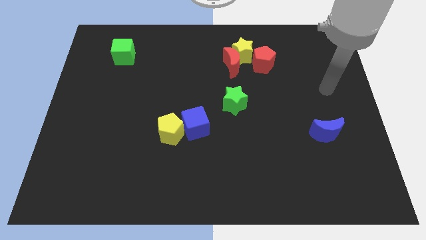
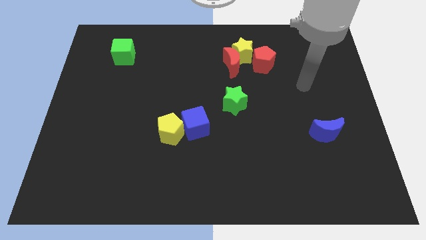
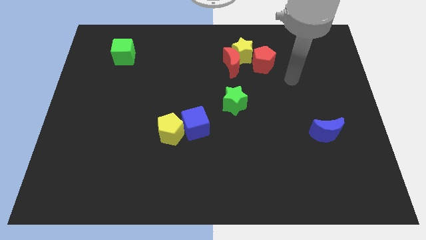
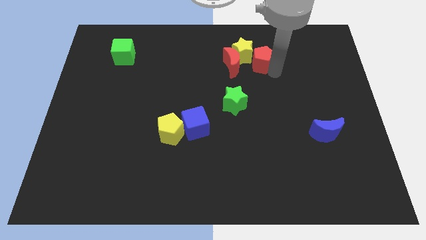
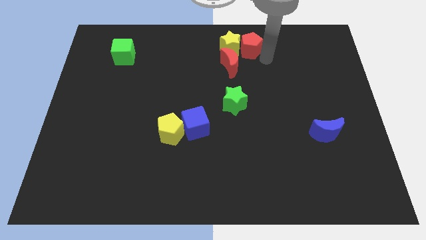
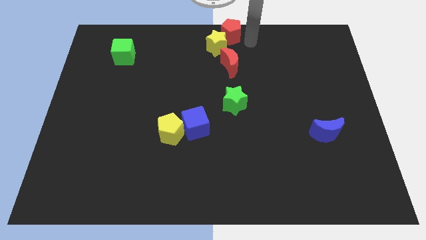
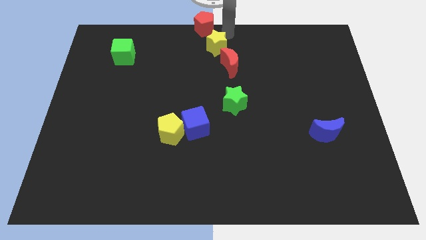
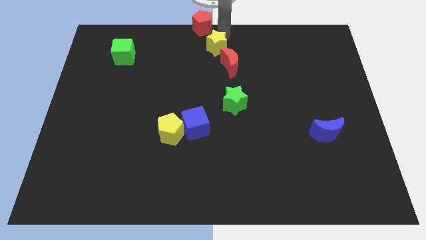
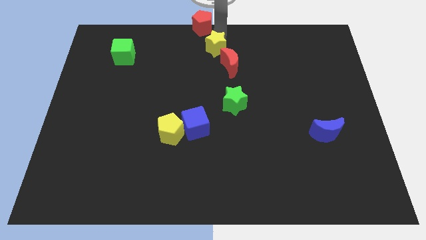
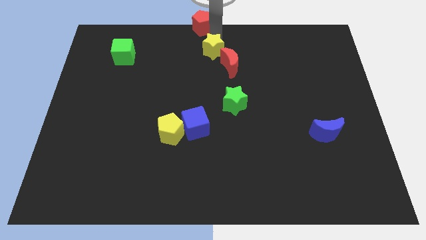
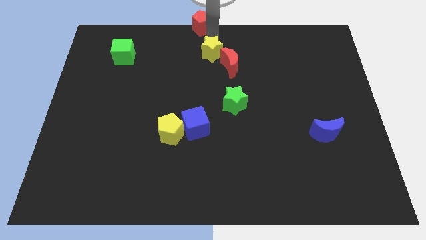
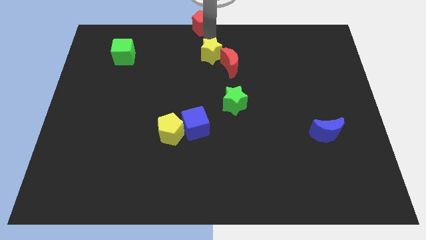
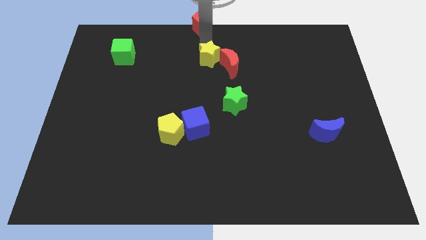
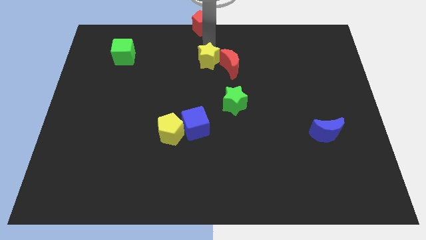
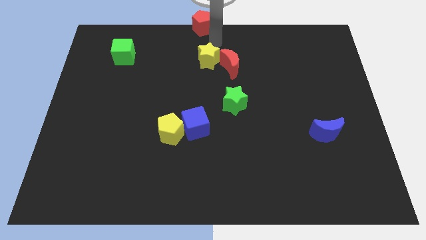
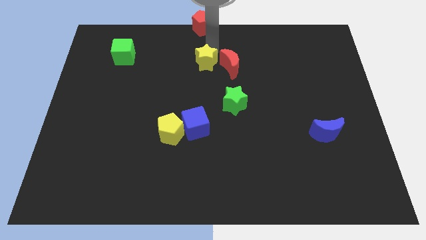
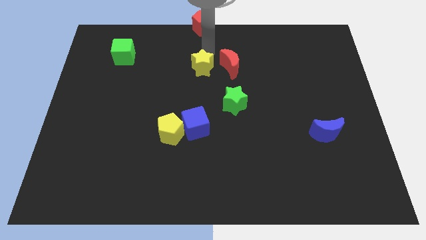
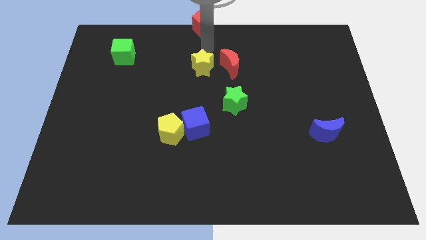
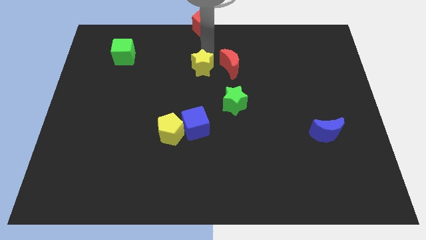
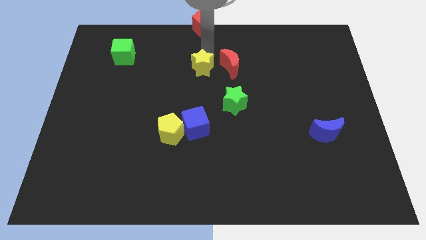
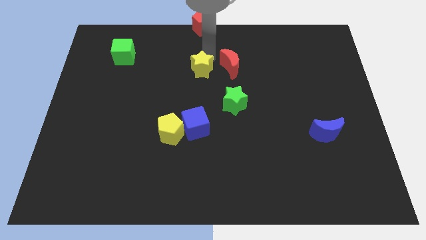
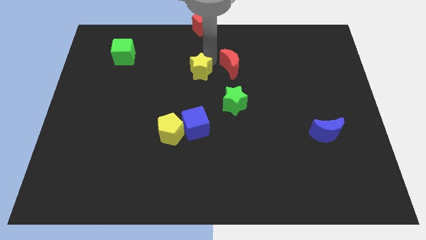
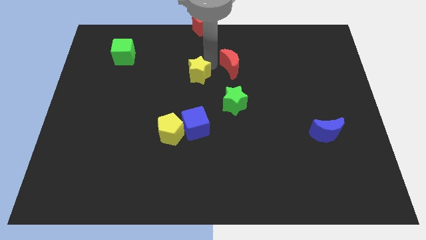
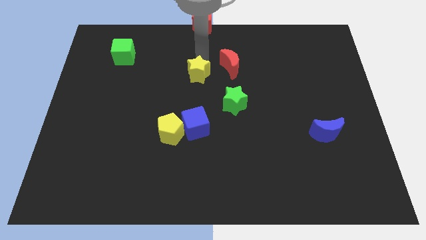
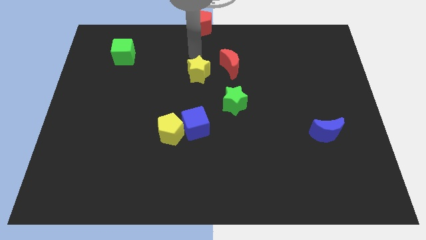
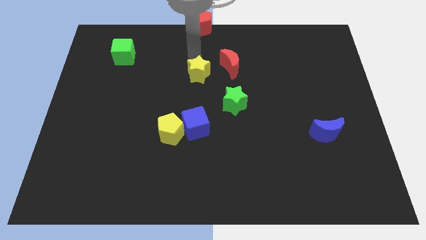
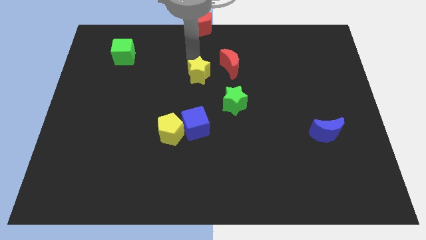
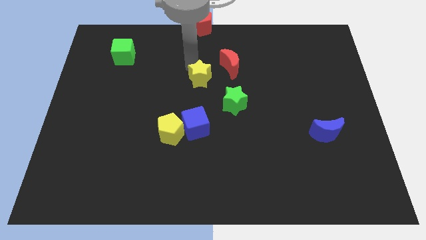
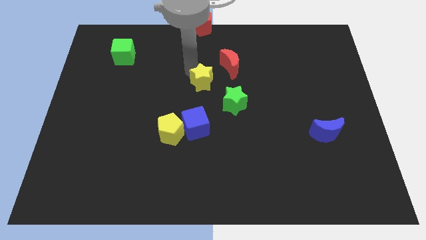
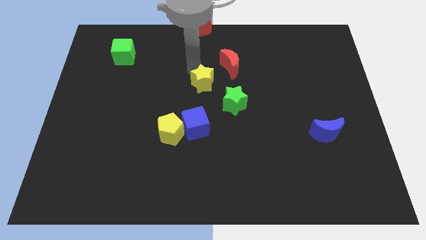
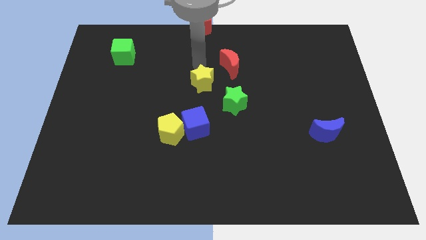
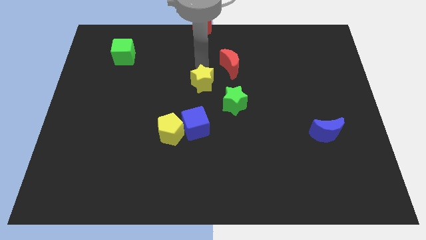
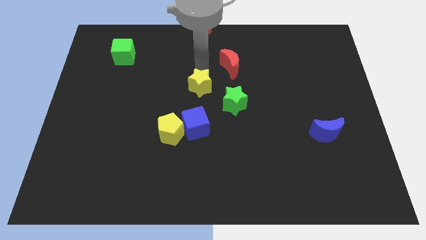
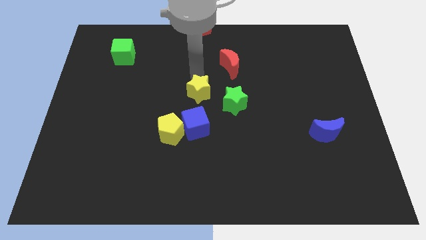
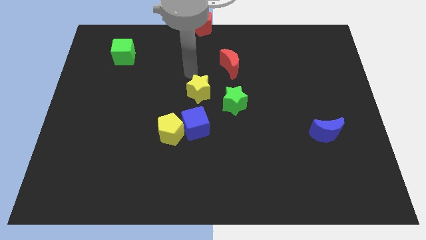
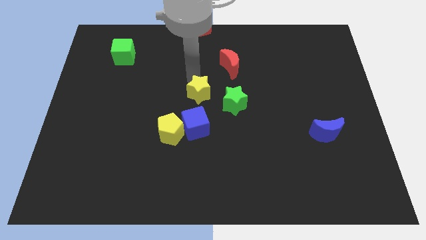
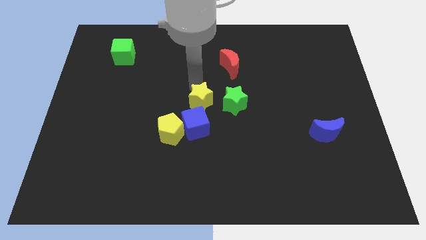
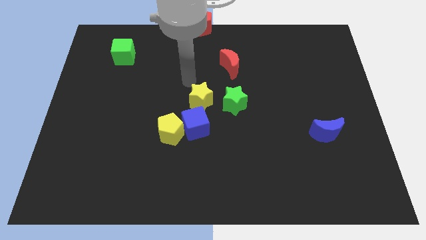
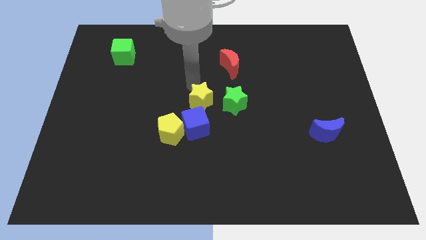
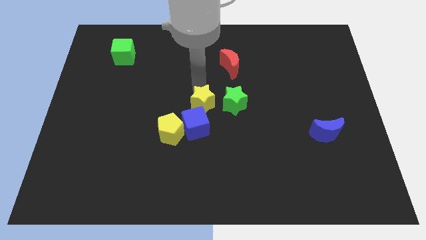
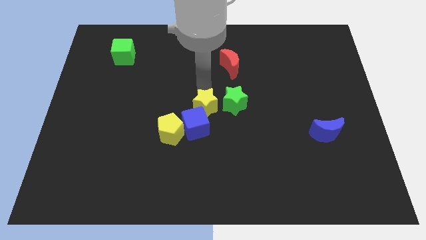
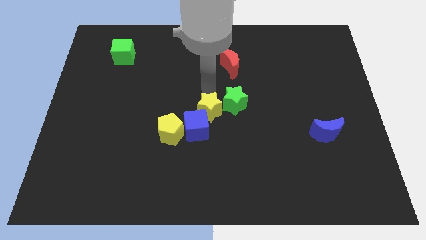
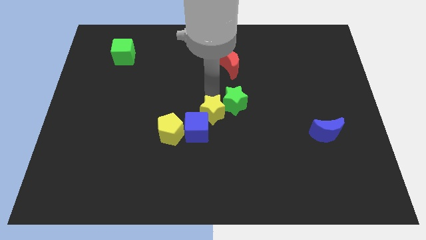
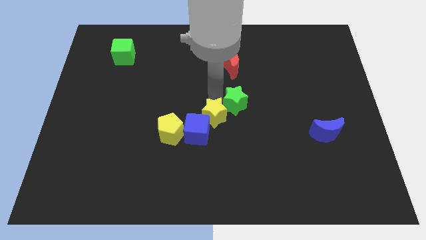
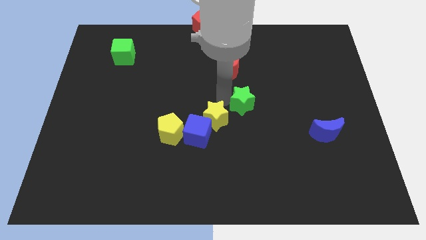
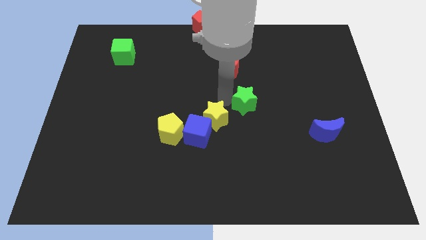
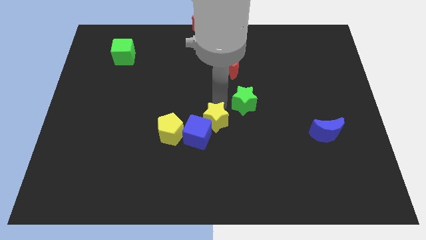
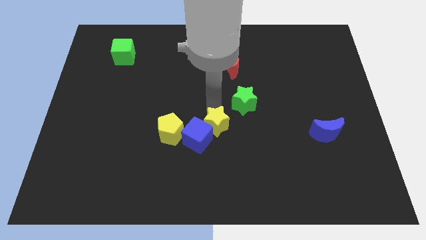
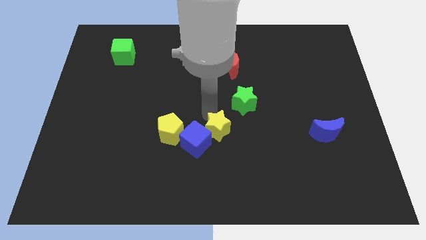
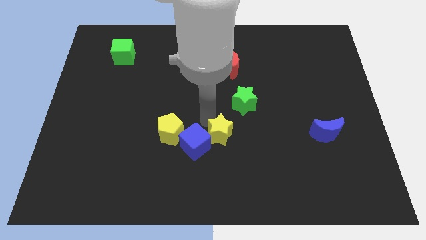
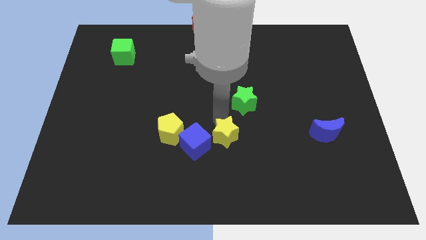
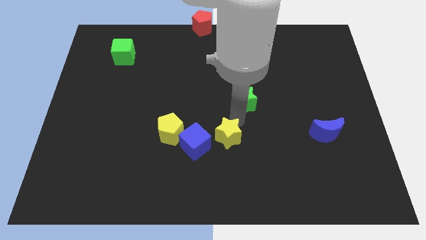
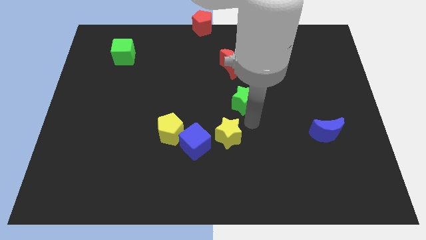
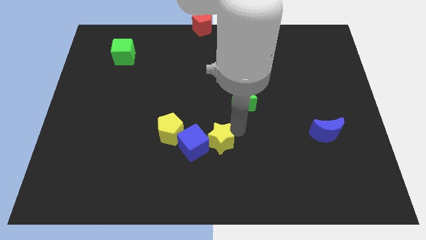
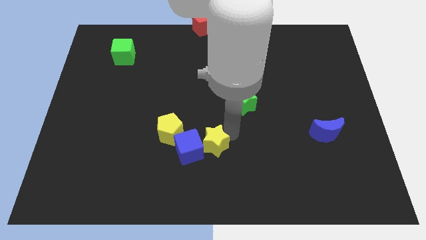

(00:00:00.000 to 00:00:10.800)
slide the yellow star to the bottom right side of the yellow pentagon

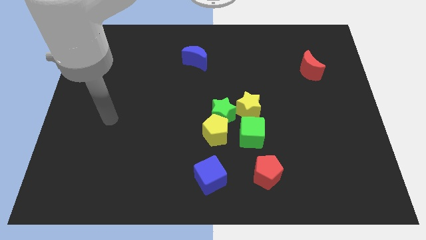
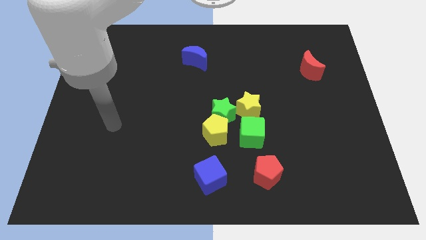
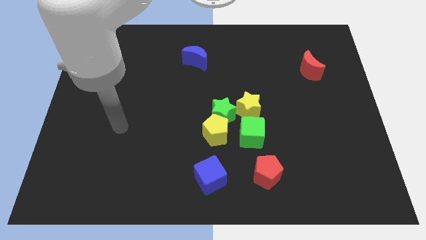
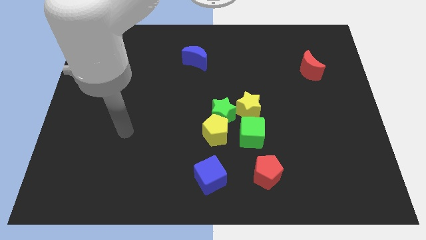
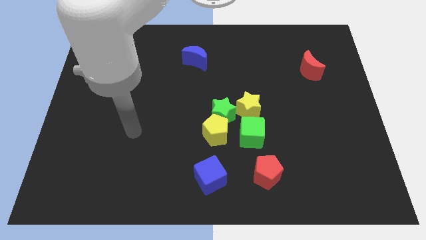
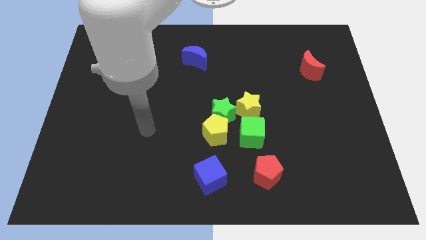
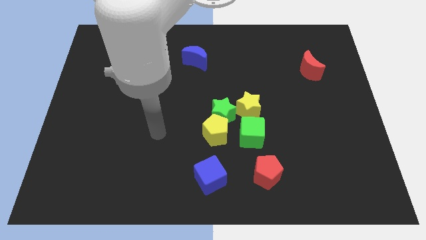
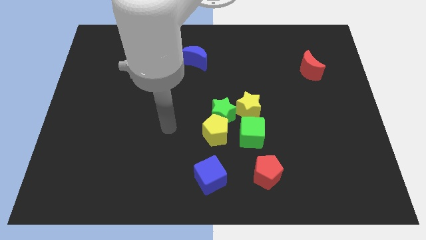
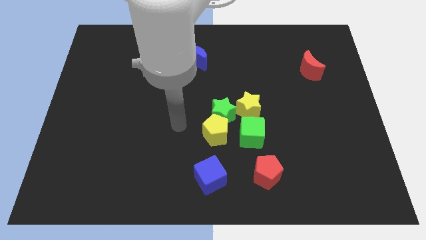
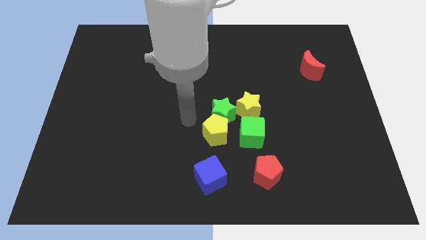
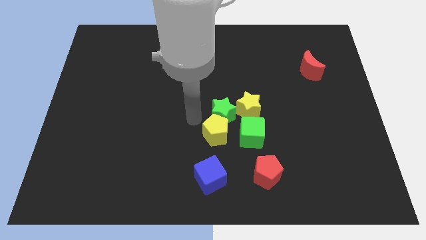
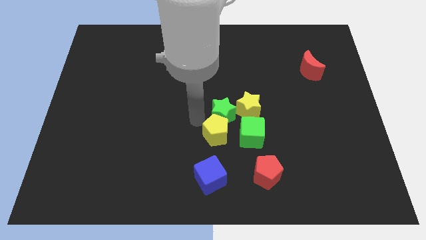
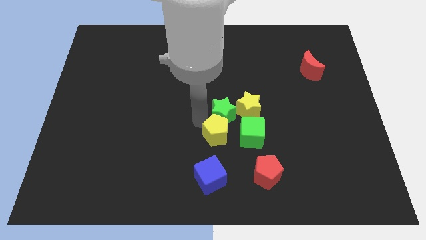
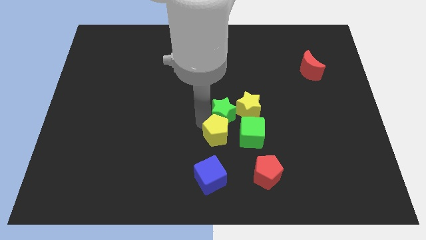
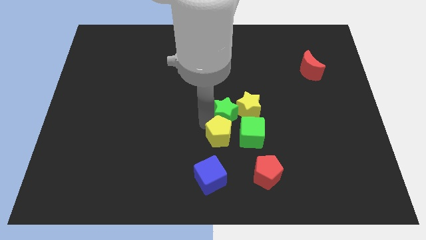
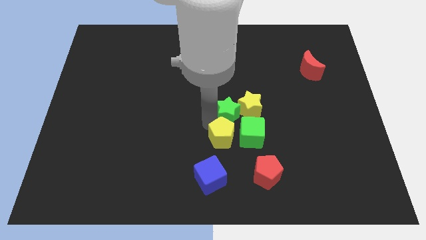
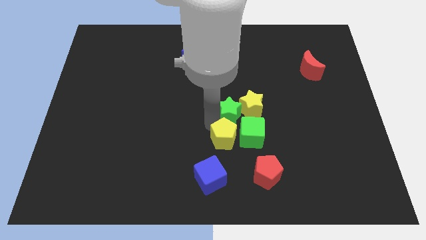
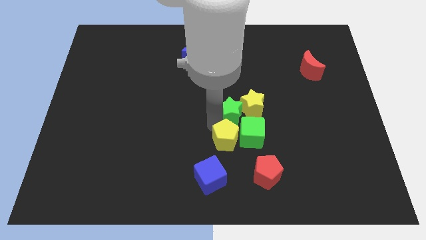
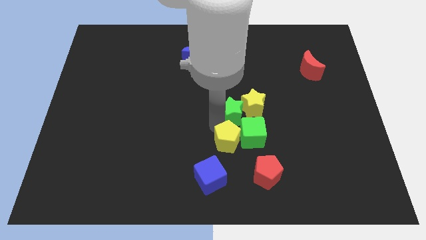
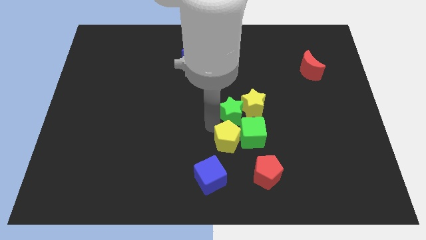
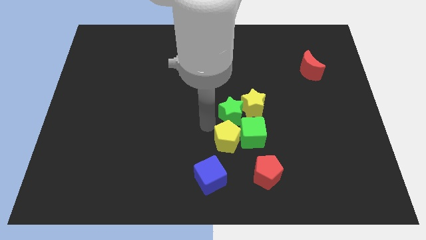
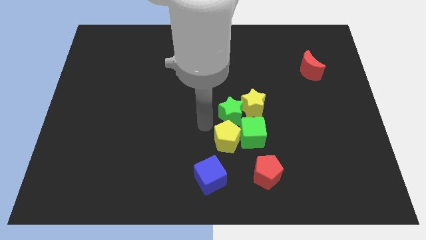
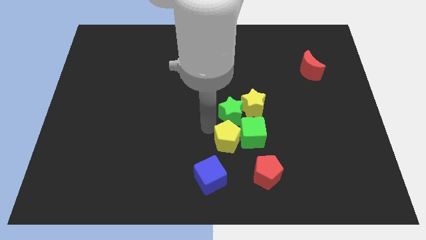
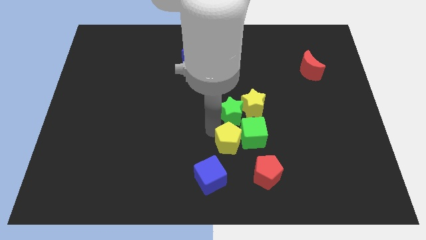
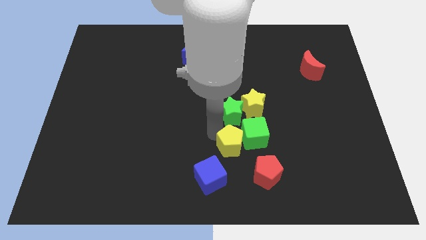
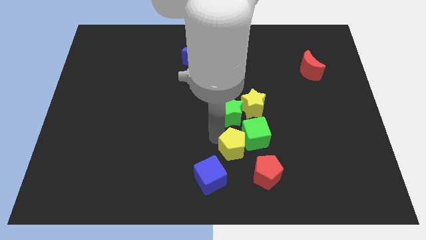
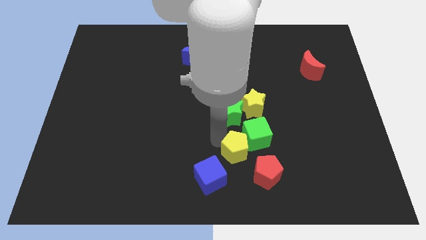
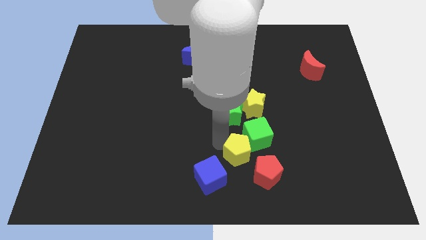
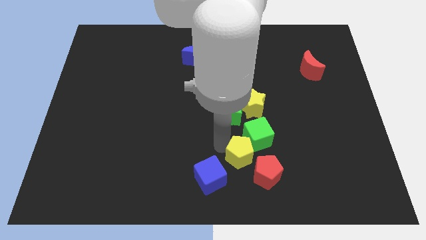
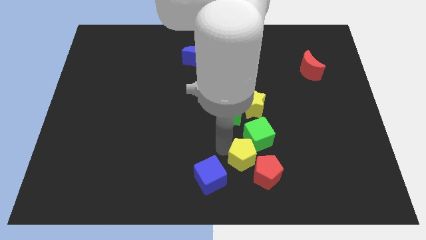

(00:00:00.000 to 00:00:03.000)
move the yellow pentagon to the right side of the blue cube
